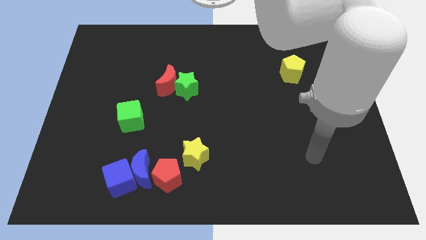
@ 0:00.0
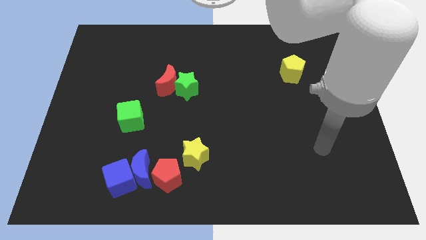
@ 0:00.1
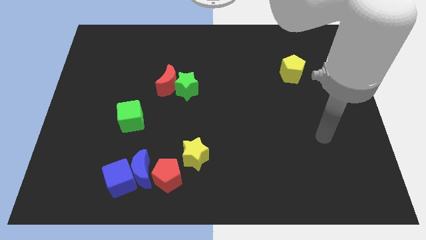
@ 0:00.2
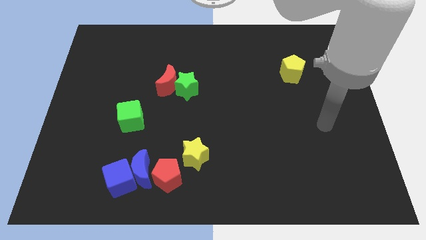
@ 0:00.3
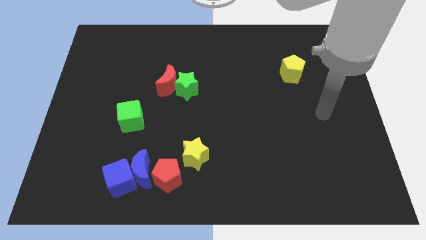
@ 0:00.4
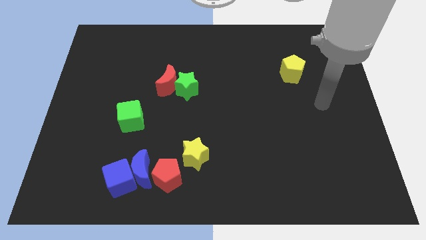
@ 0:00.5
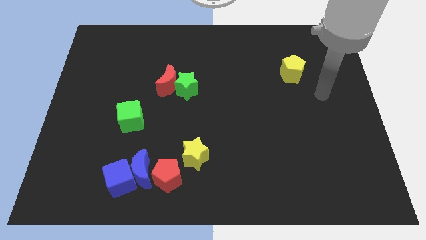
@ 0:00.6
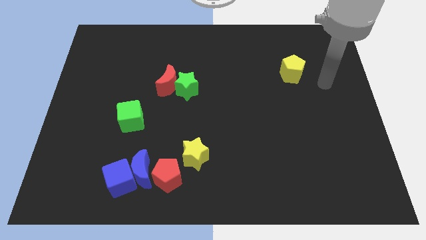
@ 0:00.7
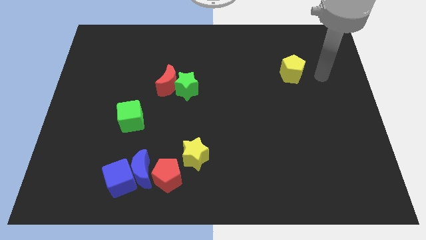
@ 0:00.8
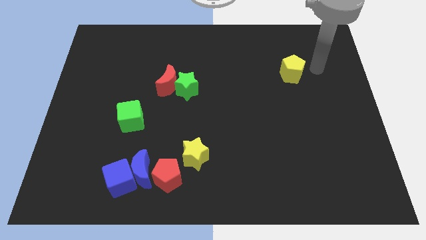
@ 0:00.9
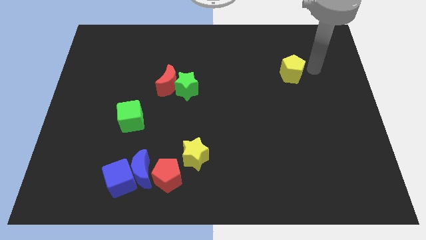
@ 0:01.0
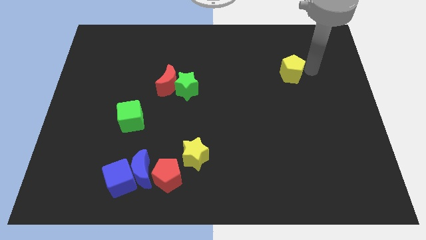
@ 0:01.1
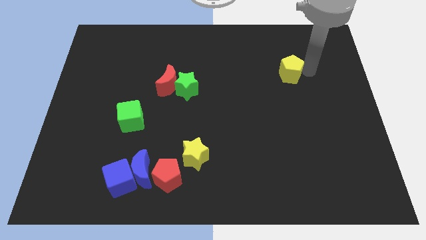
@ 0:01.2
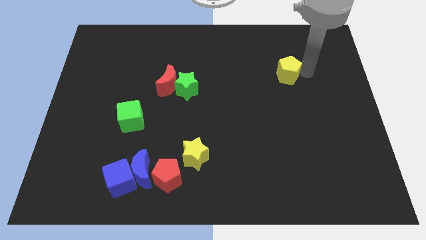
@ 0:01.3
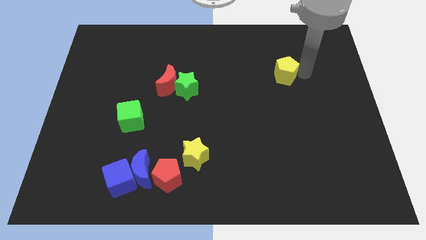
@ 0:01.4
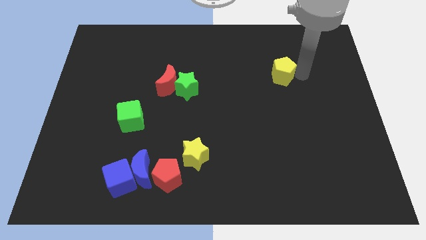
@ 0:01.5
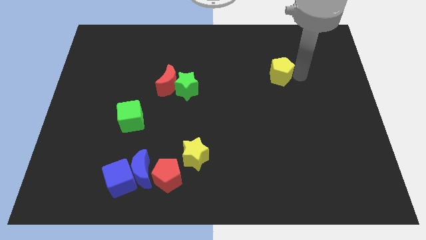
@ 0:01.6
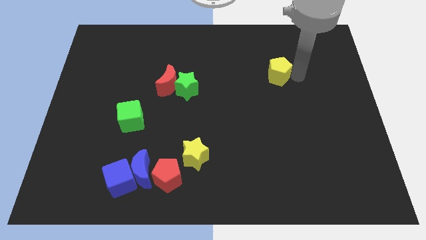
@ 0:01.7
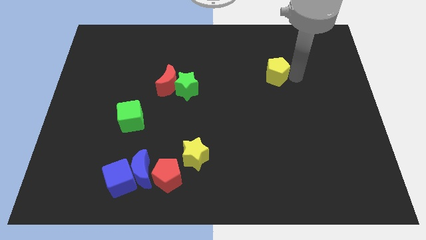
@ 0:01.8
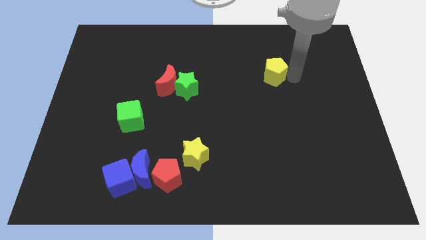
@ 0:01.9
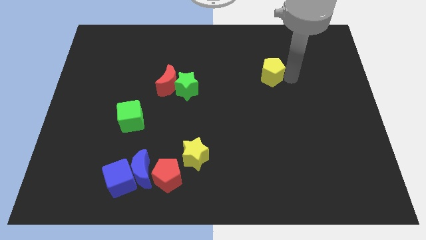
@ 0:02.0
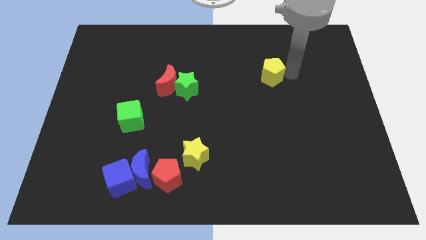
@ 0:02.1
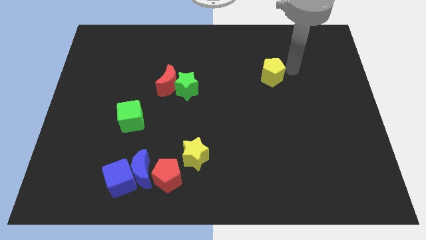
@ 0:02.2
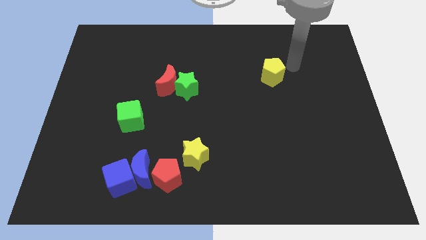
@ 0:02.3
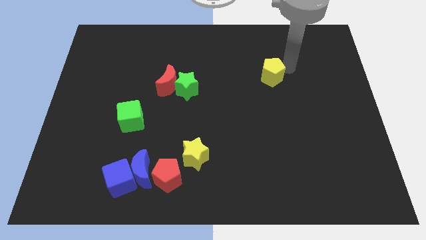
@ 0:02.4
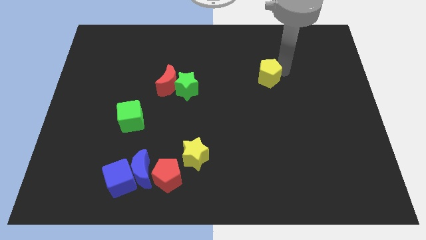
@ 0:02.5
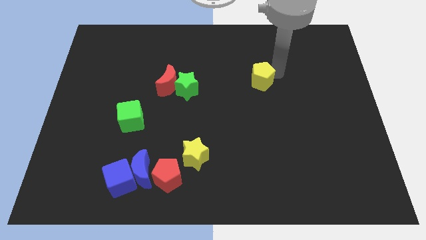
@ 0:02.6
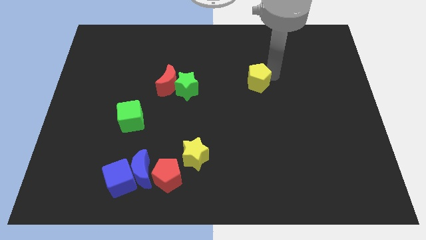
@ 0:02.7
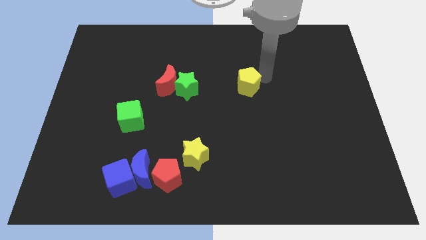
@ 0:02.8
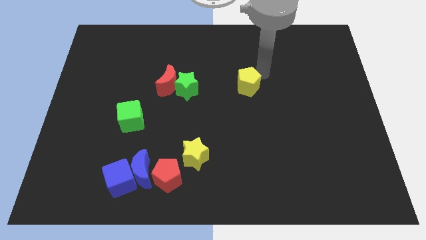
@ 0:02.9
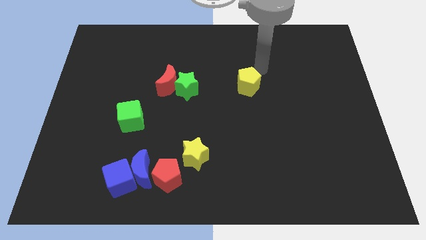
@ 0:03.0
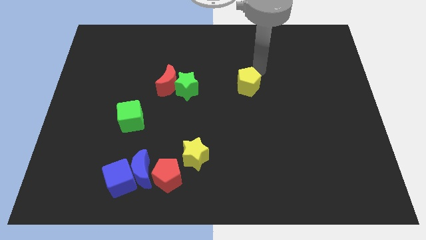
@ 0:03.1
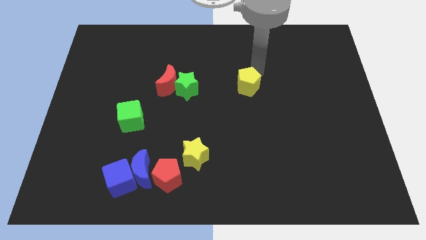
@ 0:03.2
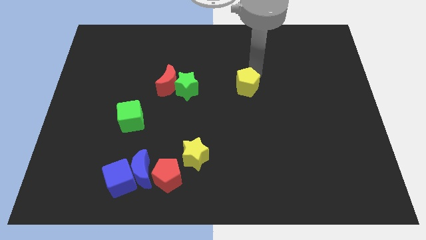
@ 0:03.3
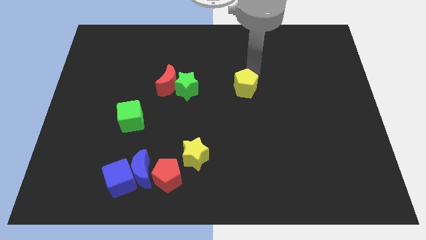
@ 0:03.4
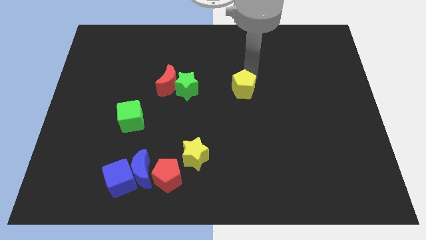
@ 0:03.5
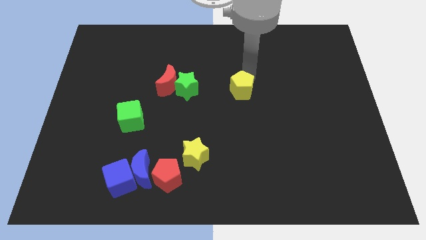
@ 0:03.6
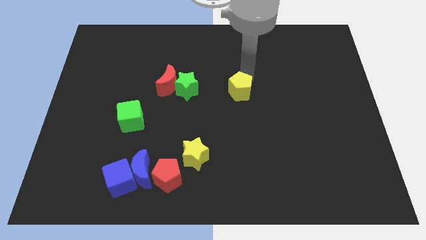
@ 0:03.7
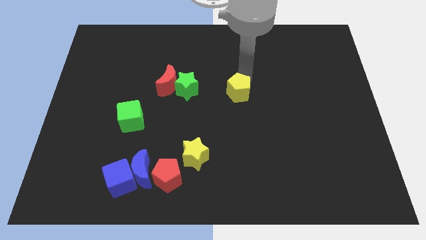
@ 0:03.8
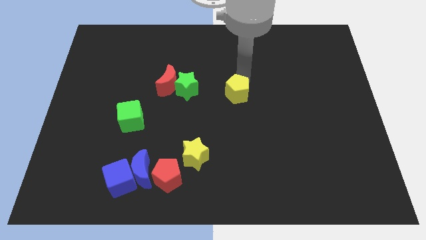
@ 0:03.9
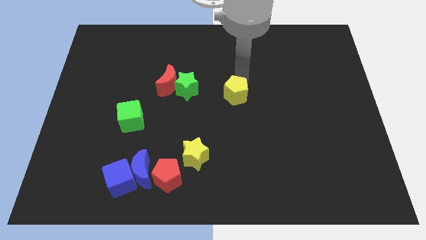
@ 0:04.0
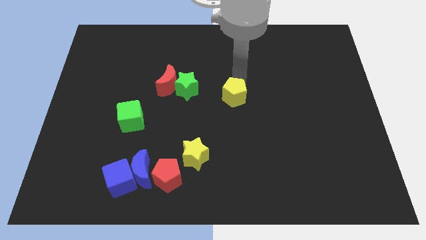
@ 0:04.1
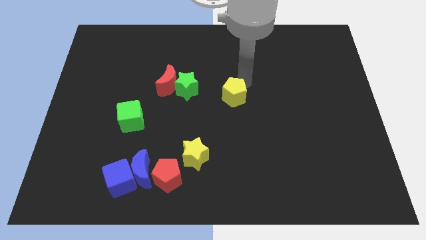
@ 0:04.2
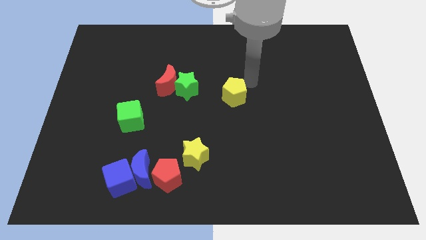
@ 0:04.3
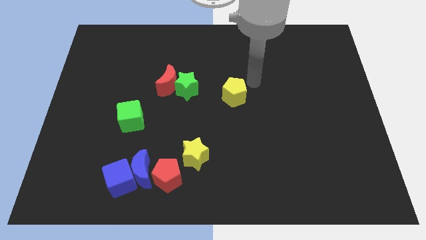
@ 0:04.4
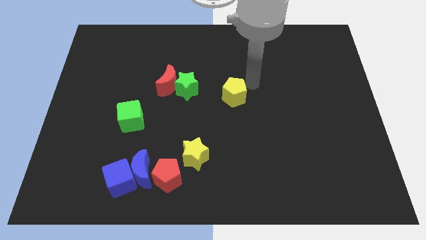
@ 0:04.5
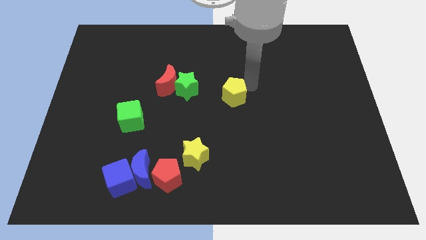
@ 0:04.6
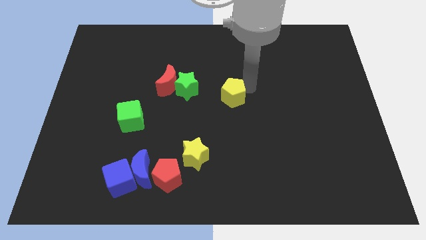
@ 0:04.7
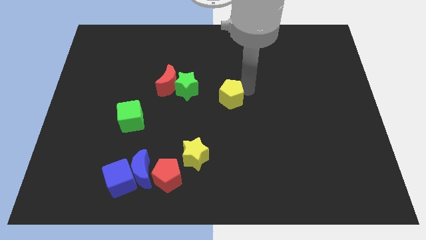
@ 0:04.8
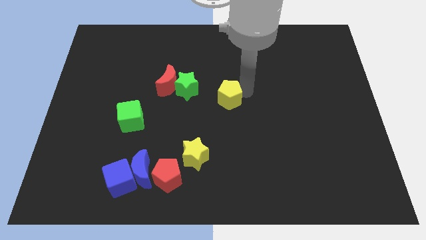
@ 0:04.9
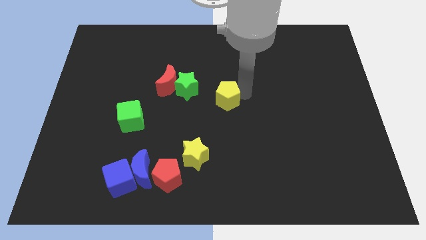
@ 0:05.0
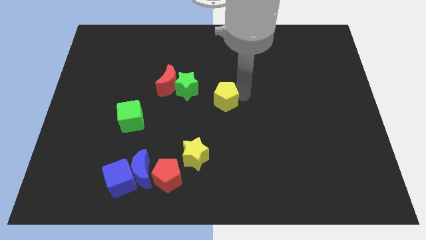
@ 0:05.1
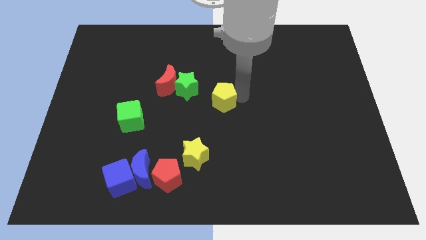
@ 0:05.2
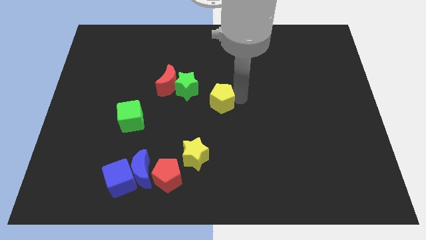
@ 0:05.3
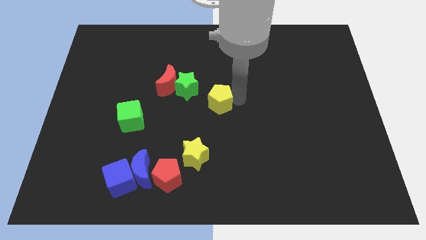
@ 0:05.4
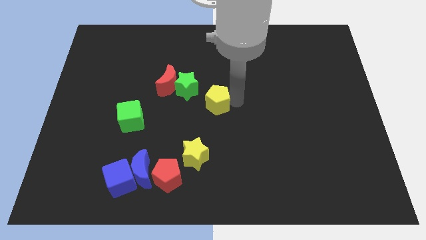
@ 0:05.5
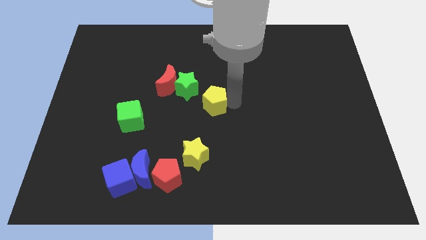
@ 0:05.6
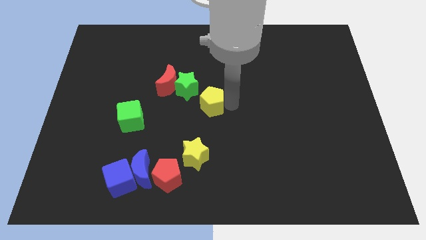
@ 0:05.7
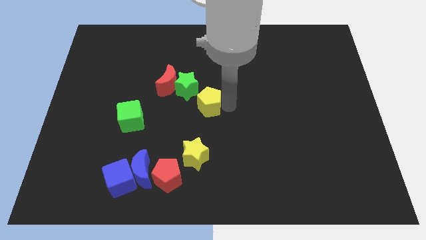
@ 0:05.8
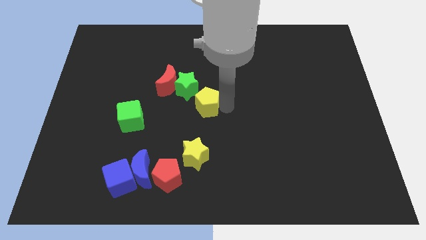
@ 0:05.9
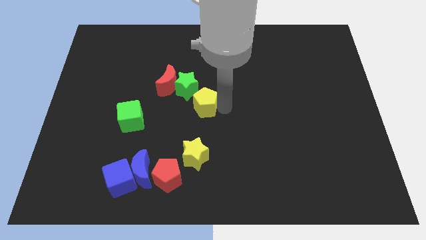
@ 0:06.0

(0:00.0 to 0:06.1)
put the yellow pentagon to the bottom side of the green star

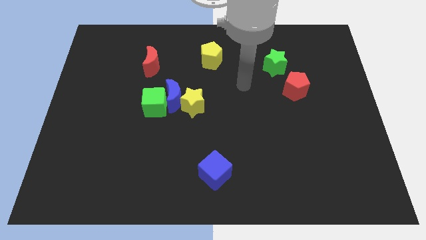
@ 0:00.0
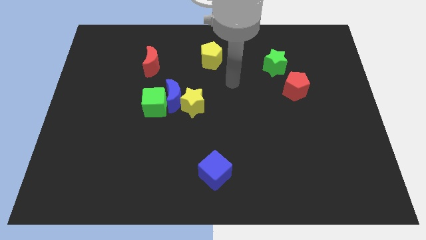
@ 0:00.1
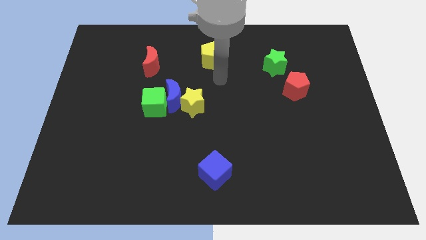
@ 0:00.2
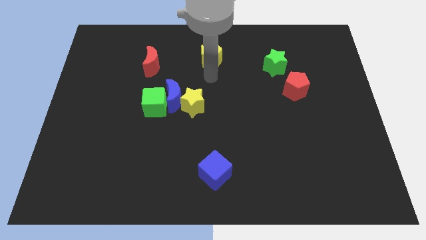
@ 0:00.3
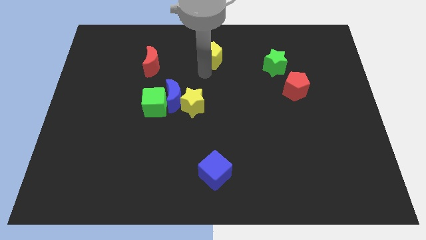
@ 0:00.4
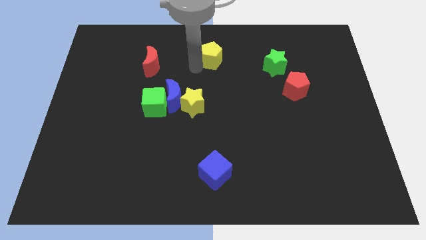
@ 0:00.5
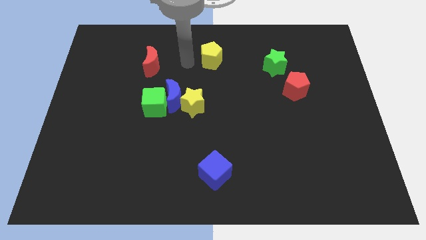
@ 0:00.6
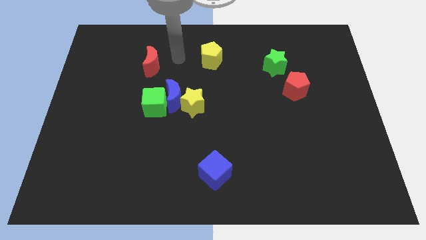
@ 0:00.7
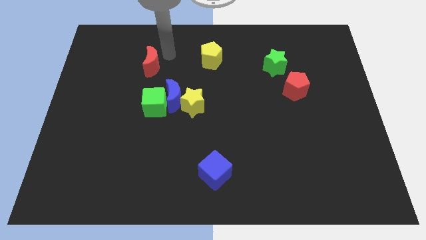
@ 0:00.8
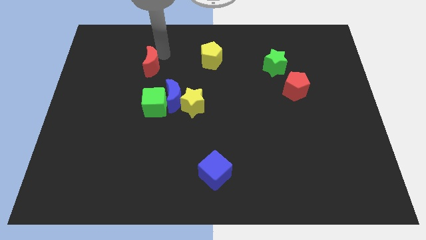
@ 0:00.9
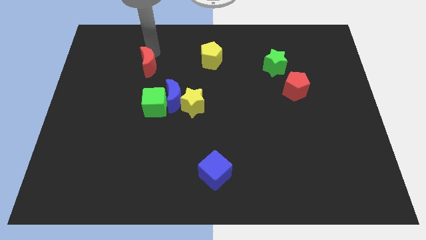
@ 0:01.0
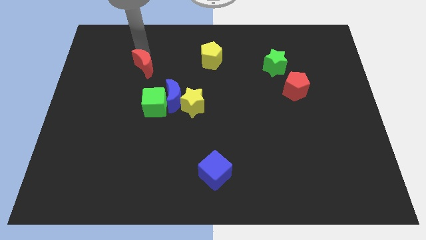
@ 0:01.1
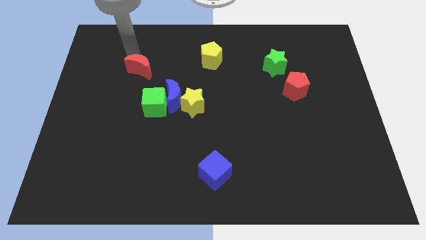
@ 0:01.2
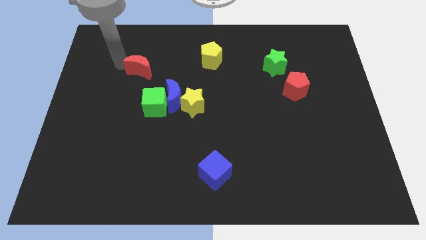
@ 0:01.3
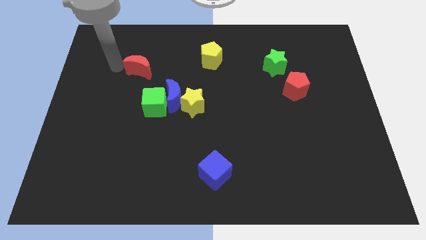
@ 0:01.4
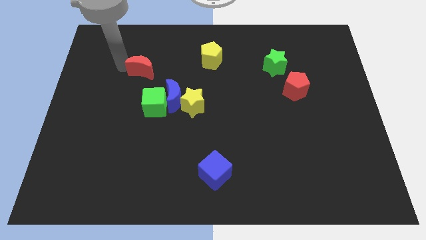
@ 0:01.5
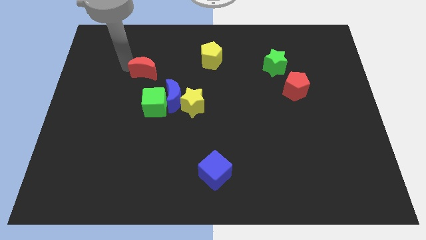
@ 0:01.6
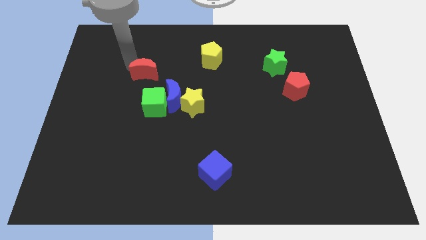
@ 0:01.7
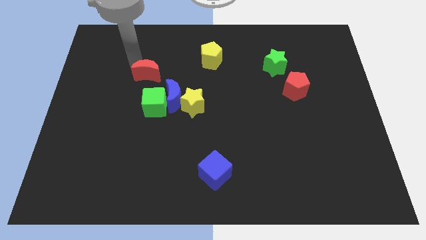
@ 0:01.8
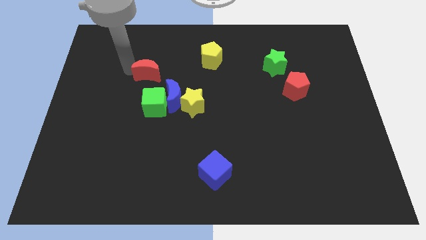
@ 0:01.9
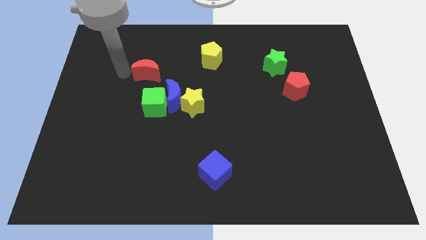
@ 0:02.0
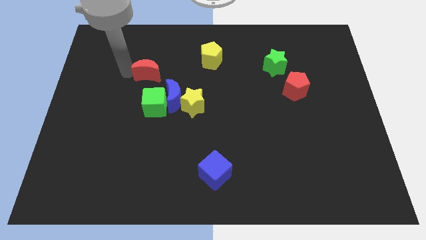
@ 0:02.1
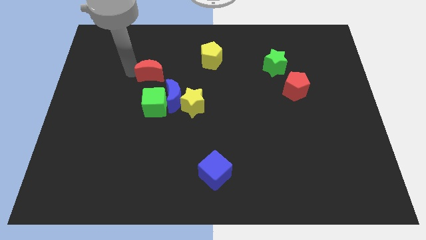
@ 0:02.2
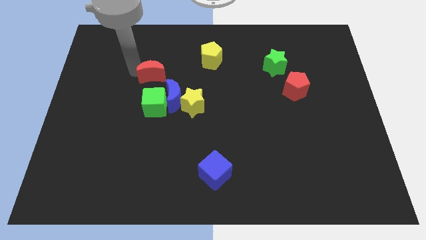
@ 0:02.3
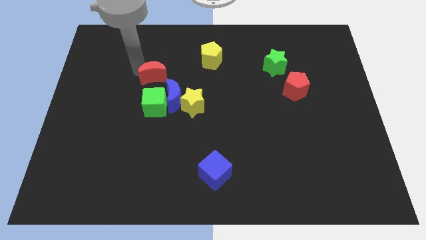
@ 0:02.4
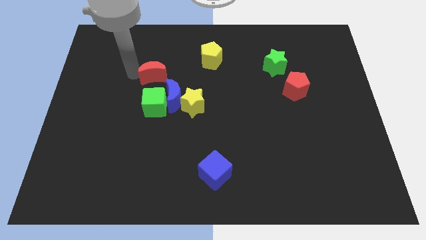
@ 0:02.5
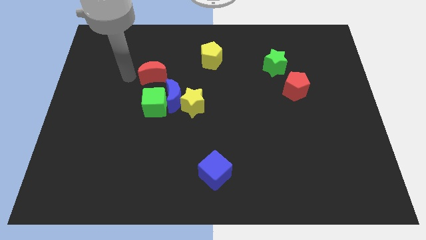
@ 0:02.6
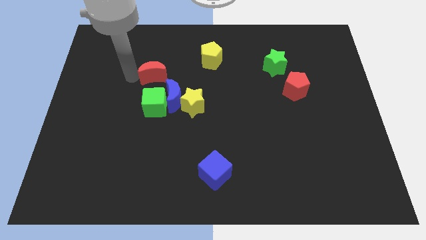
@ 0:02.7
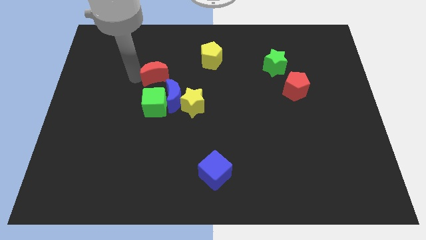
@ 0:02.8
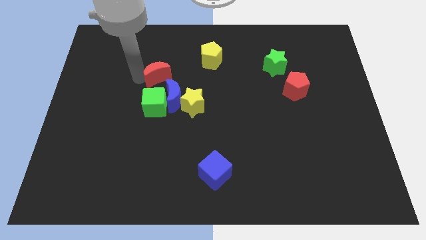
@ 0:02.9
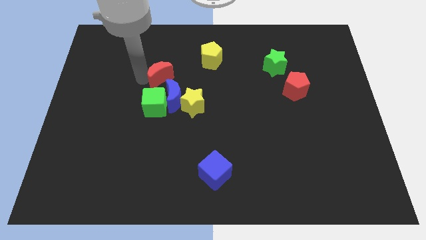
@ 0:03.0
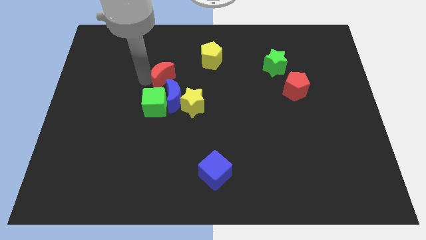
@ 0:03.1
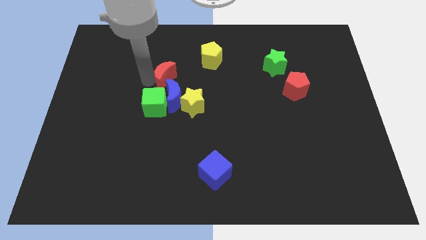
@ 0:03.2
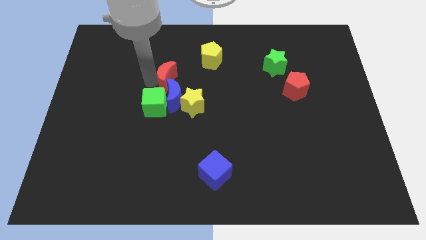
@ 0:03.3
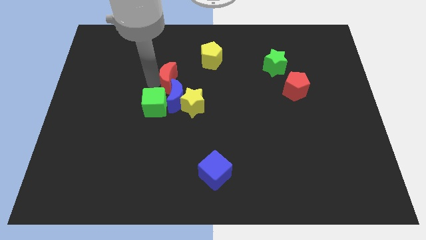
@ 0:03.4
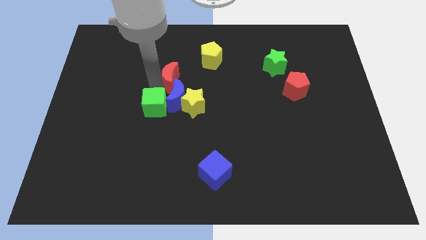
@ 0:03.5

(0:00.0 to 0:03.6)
slide the red moon to the bottom left of the yellow pentagon
